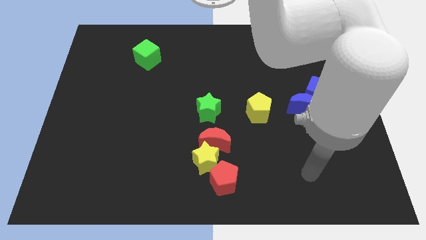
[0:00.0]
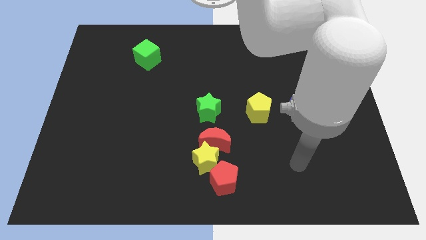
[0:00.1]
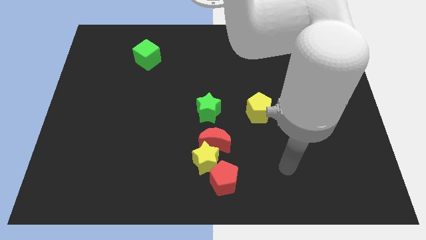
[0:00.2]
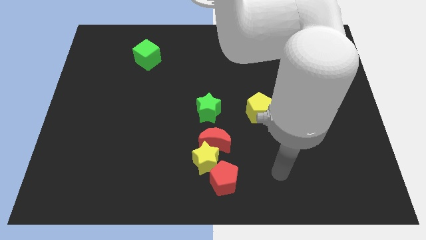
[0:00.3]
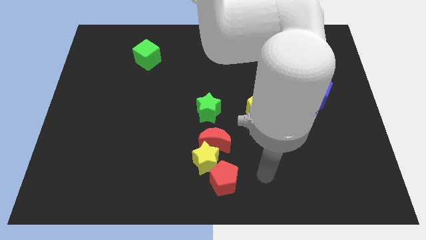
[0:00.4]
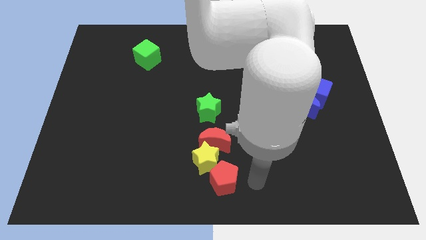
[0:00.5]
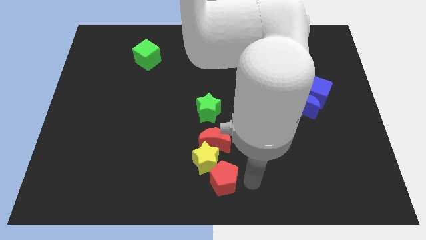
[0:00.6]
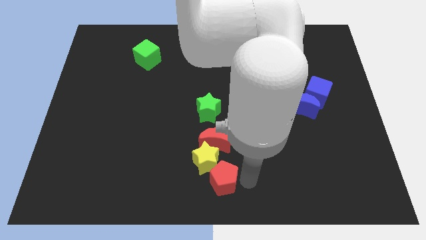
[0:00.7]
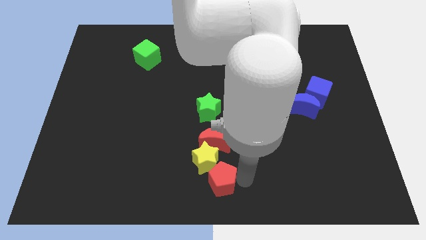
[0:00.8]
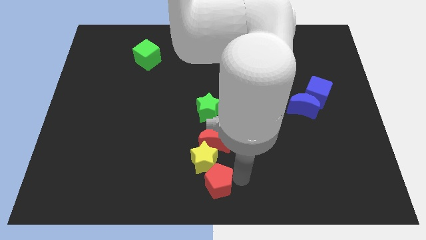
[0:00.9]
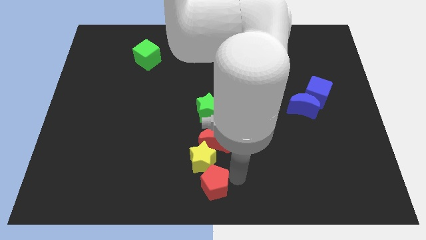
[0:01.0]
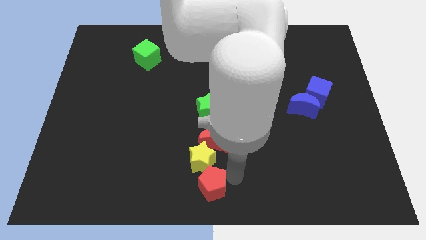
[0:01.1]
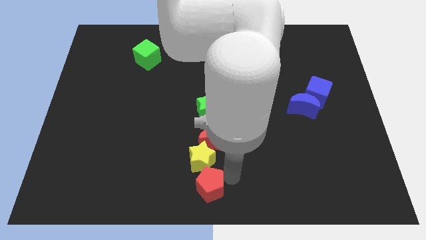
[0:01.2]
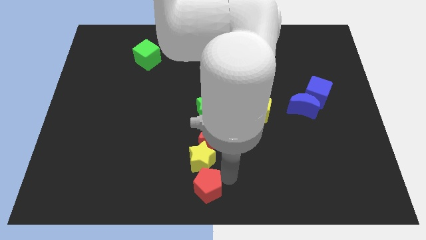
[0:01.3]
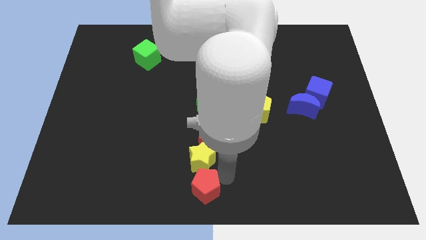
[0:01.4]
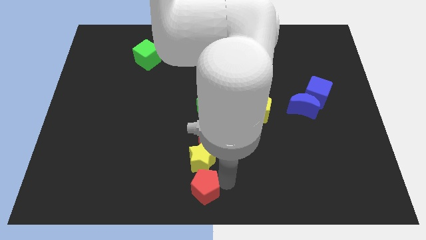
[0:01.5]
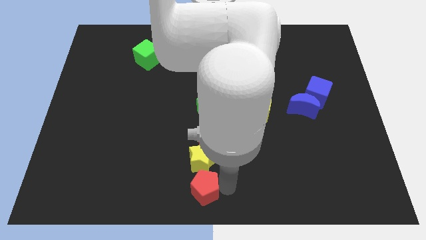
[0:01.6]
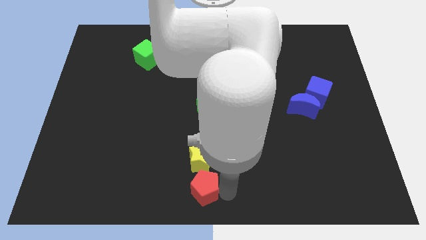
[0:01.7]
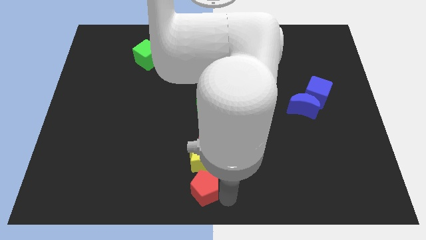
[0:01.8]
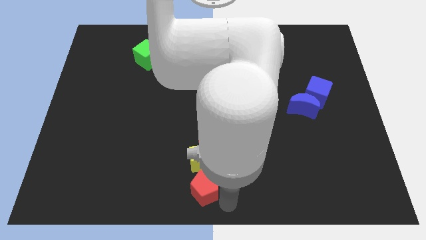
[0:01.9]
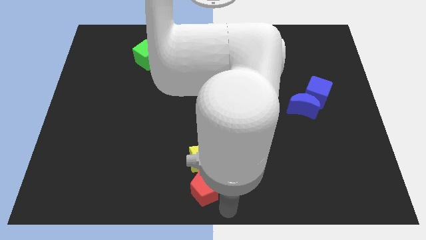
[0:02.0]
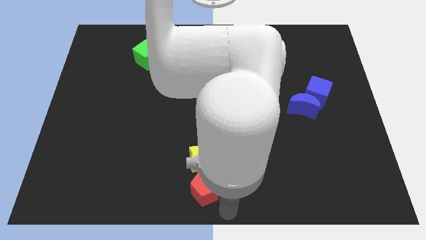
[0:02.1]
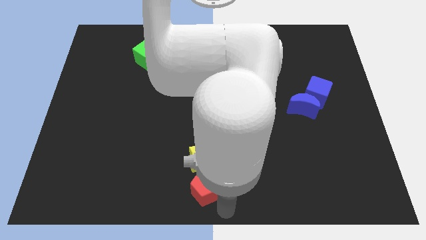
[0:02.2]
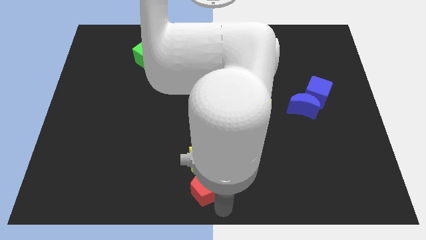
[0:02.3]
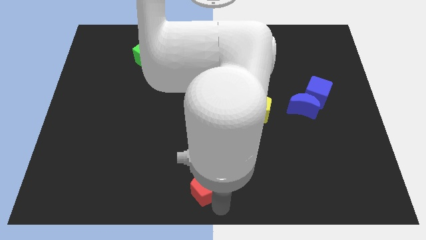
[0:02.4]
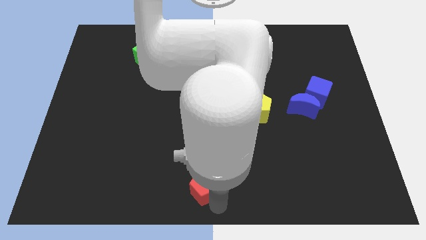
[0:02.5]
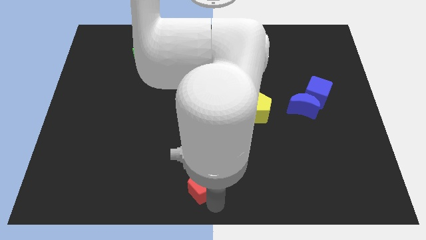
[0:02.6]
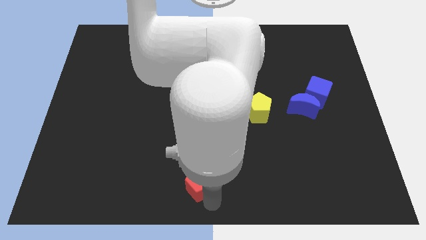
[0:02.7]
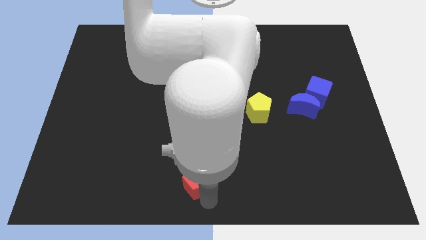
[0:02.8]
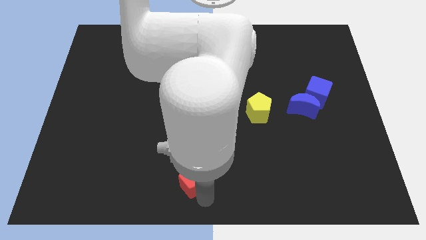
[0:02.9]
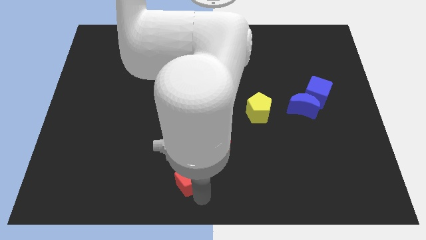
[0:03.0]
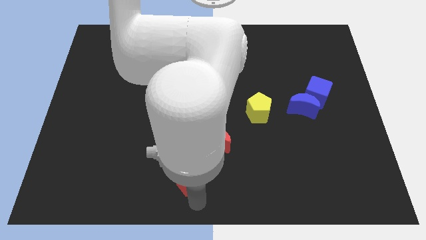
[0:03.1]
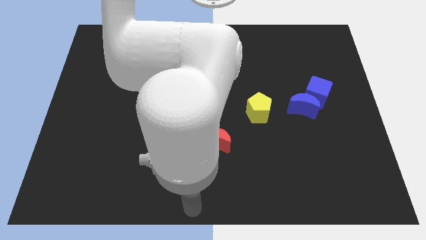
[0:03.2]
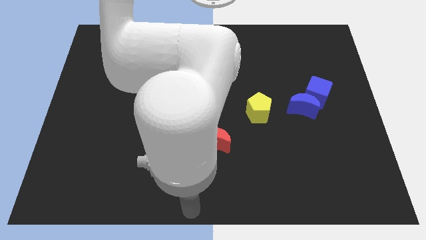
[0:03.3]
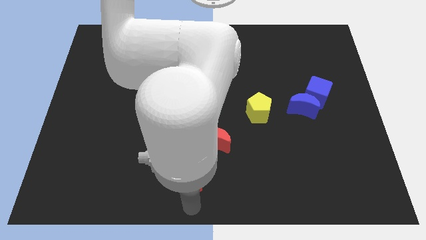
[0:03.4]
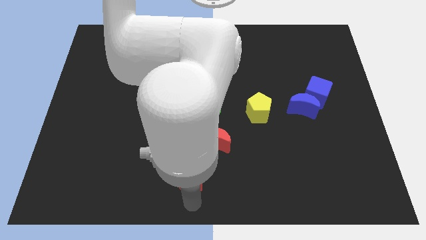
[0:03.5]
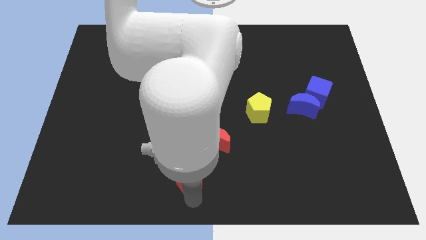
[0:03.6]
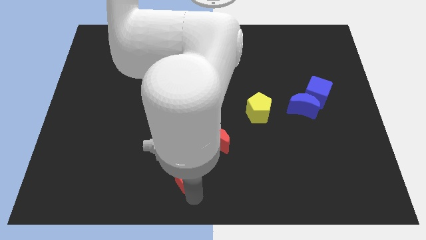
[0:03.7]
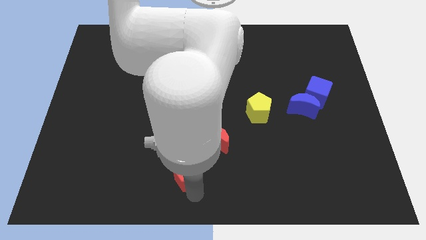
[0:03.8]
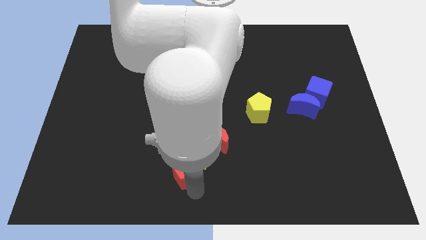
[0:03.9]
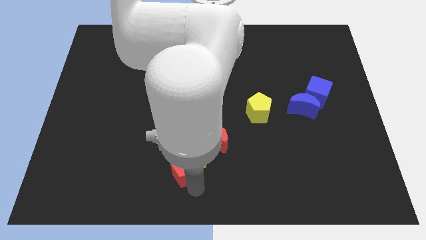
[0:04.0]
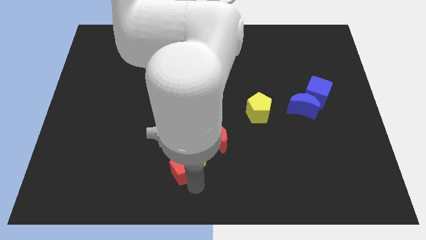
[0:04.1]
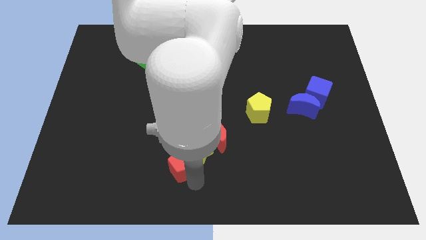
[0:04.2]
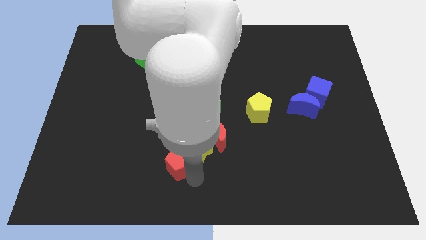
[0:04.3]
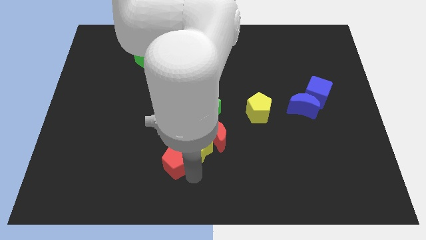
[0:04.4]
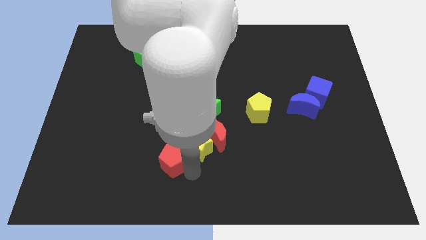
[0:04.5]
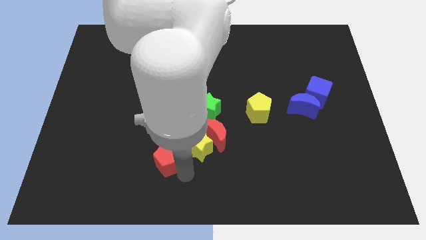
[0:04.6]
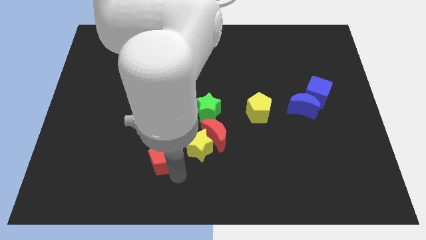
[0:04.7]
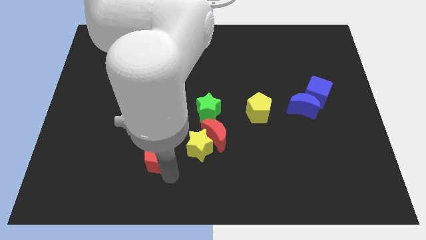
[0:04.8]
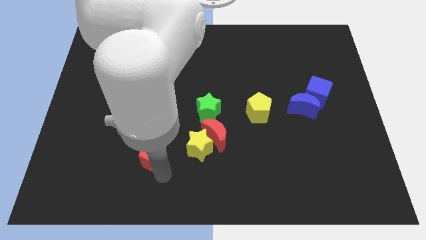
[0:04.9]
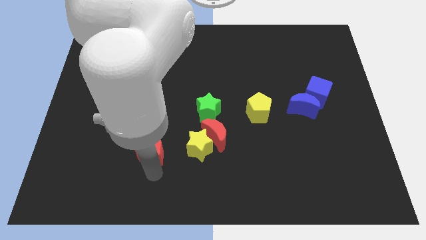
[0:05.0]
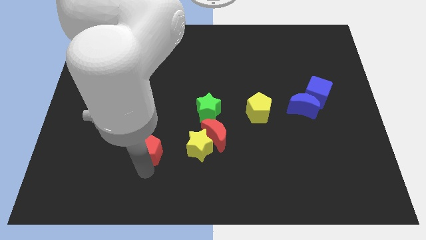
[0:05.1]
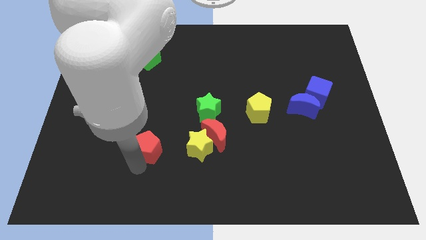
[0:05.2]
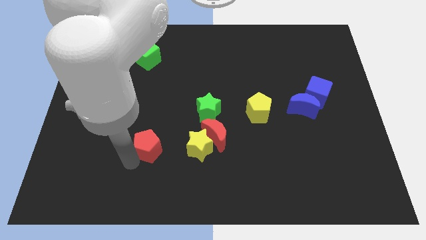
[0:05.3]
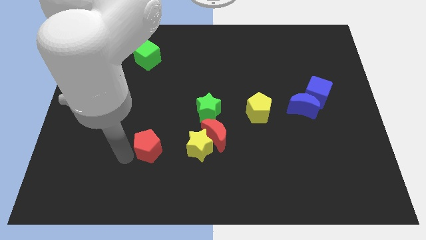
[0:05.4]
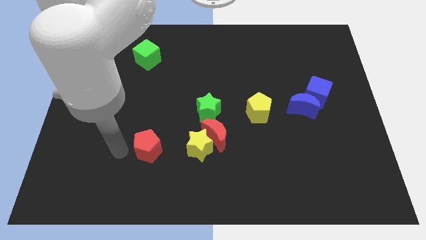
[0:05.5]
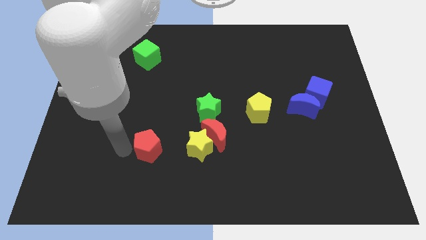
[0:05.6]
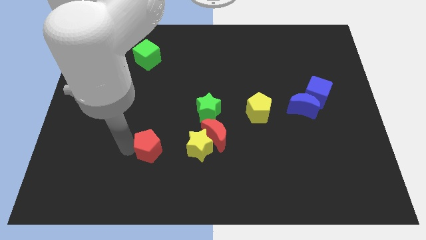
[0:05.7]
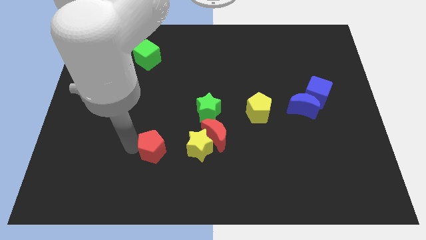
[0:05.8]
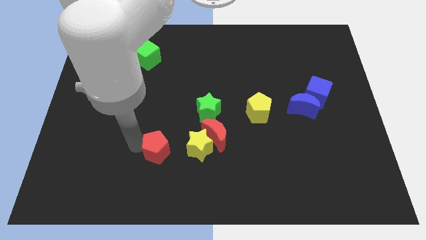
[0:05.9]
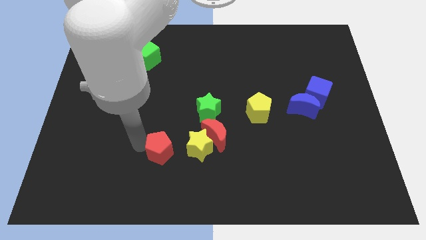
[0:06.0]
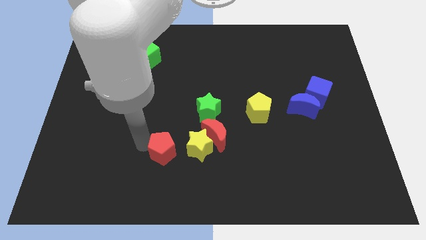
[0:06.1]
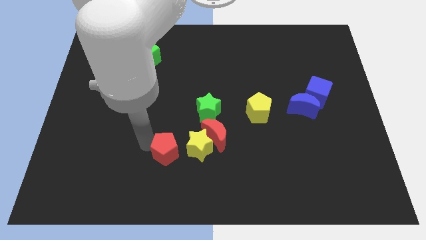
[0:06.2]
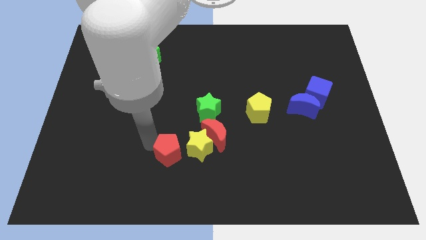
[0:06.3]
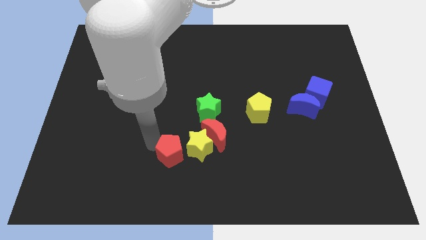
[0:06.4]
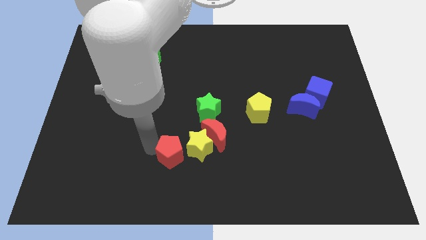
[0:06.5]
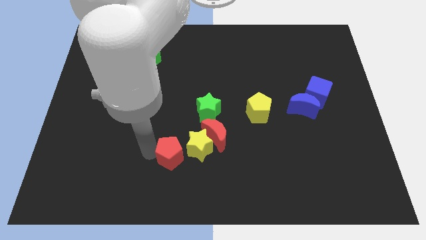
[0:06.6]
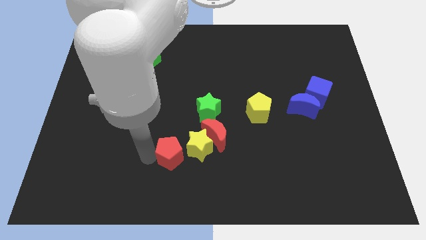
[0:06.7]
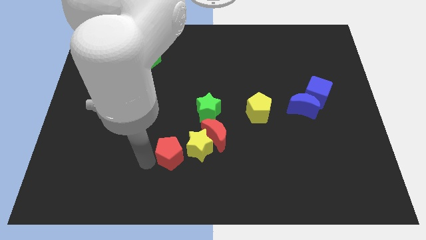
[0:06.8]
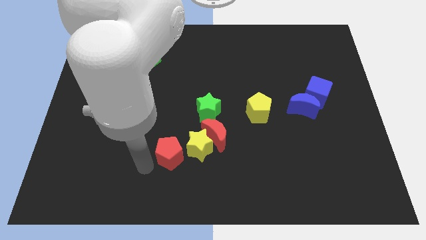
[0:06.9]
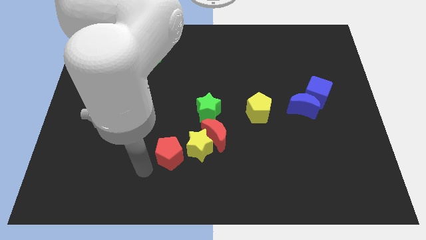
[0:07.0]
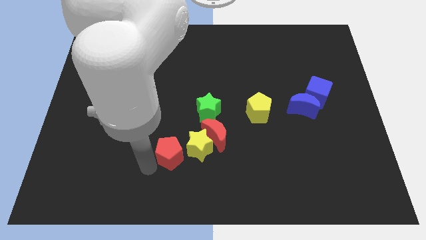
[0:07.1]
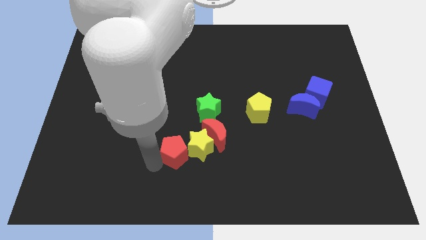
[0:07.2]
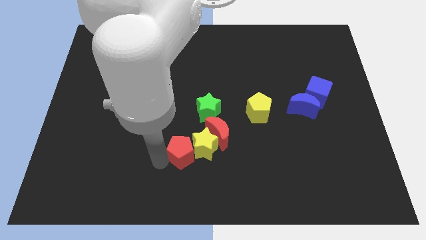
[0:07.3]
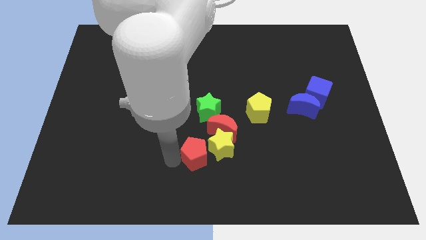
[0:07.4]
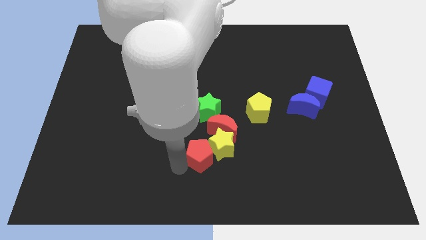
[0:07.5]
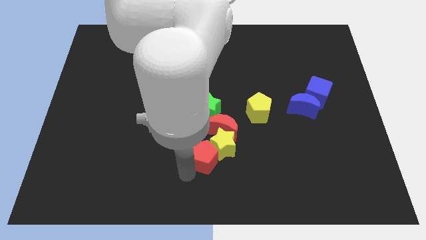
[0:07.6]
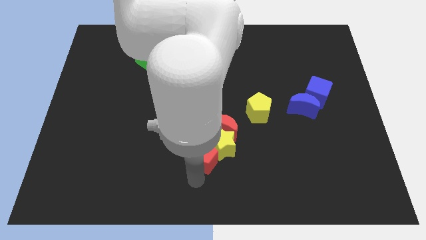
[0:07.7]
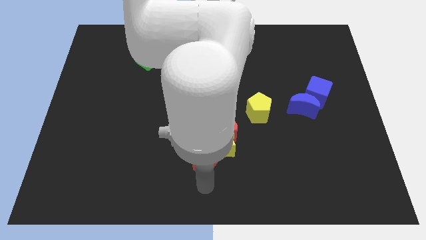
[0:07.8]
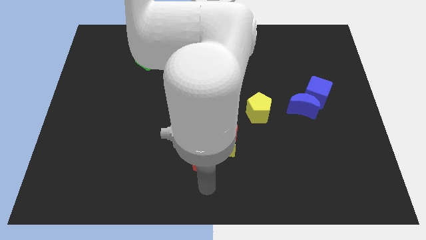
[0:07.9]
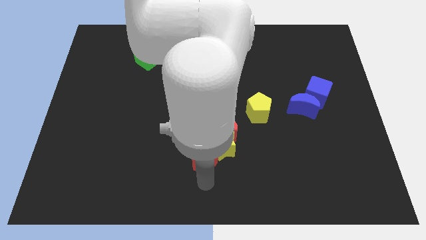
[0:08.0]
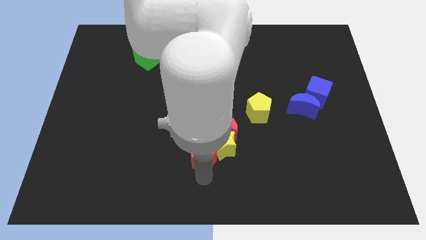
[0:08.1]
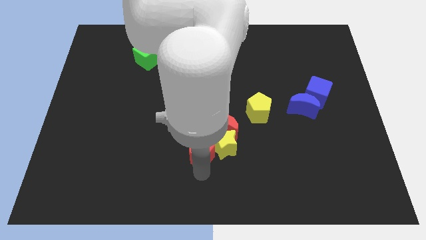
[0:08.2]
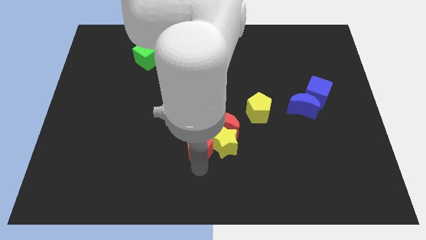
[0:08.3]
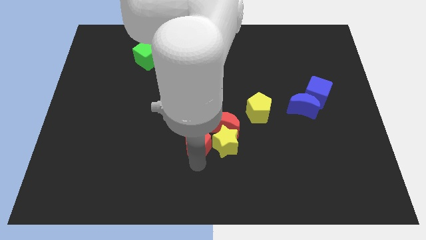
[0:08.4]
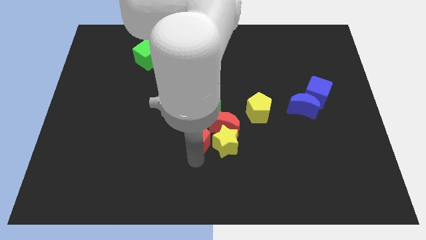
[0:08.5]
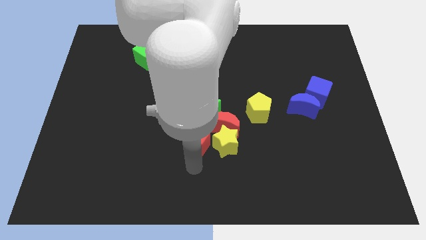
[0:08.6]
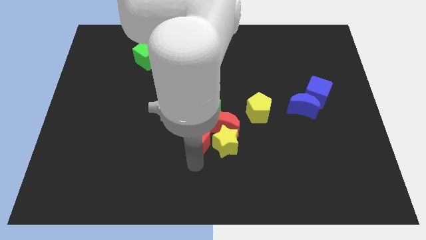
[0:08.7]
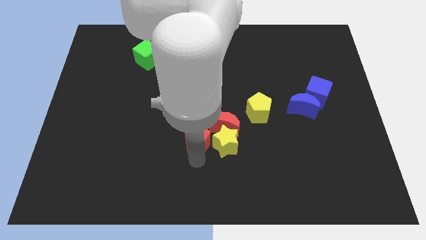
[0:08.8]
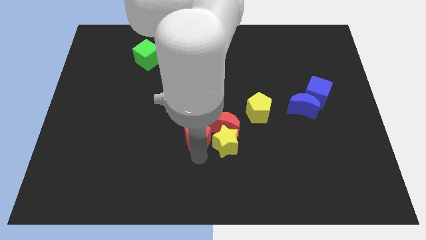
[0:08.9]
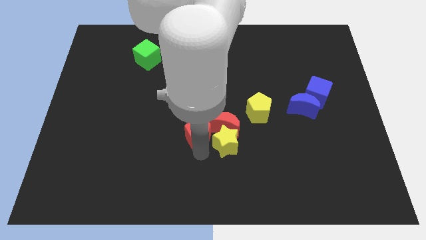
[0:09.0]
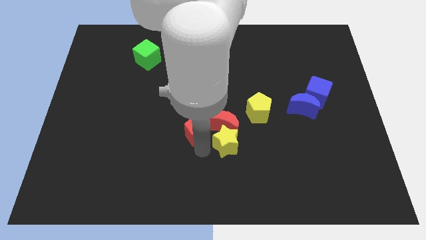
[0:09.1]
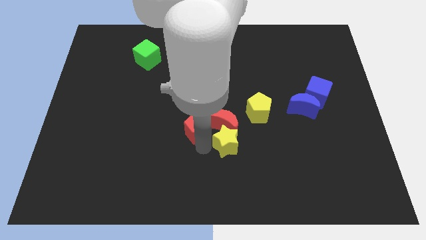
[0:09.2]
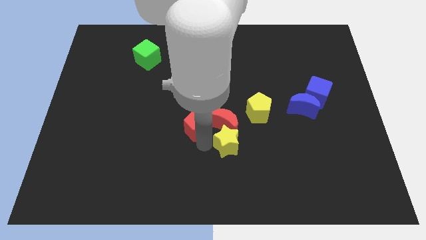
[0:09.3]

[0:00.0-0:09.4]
slide the red pentagon to the top left of the red moon
